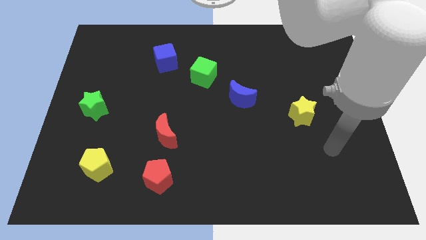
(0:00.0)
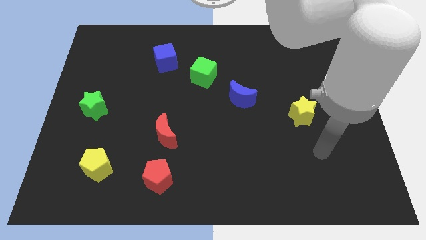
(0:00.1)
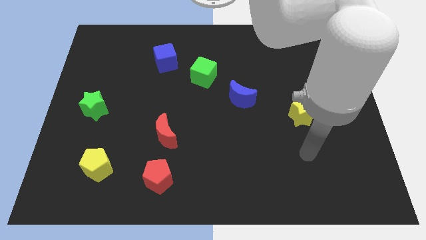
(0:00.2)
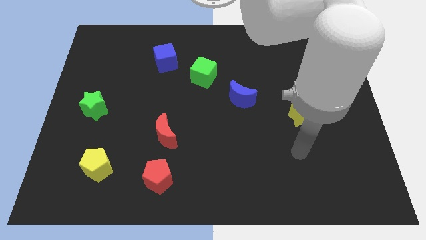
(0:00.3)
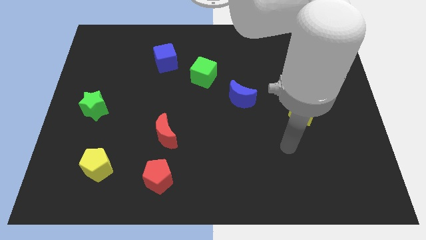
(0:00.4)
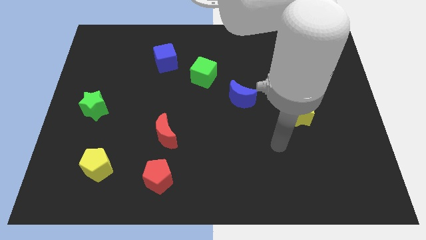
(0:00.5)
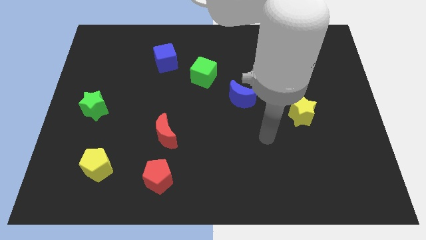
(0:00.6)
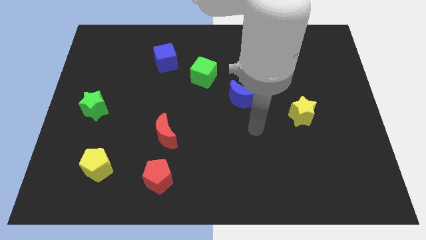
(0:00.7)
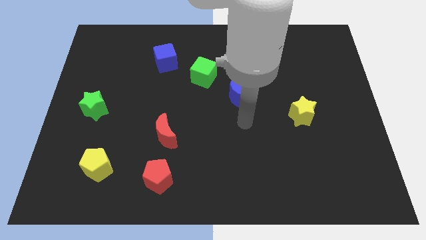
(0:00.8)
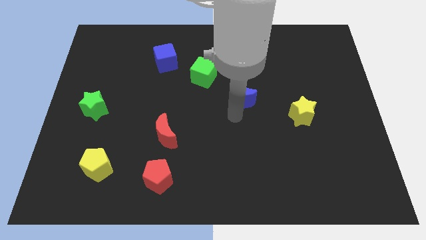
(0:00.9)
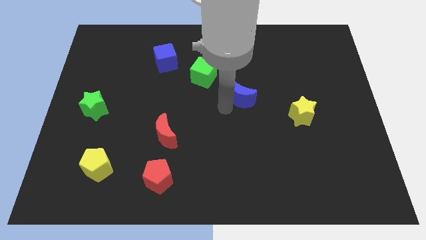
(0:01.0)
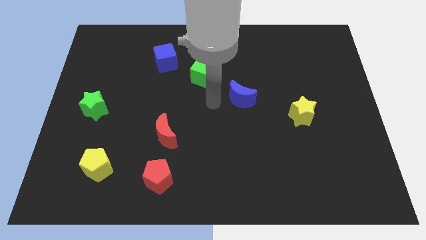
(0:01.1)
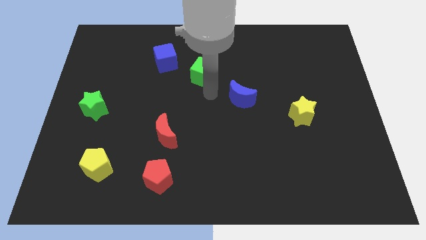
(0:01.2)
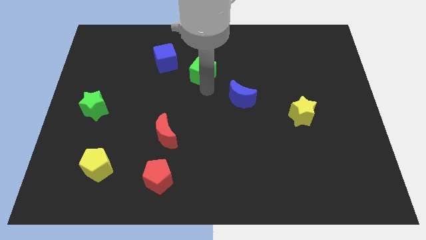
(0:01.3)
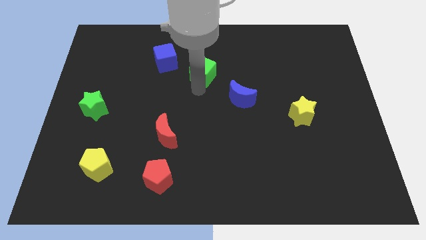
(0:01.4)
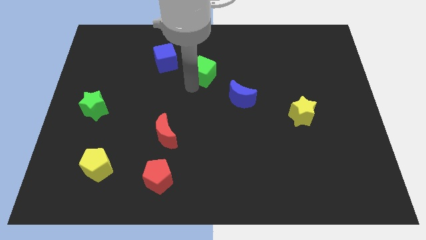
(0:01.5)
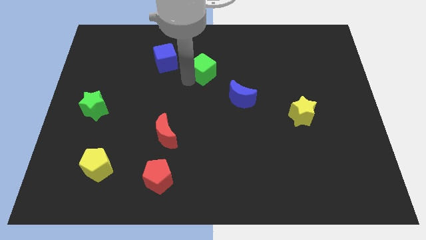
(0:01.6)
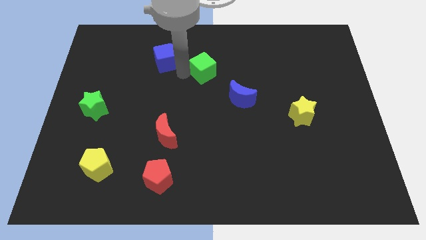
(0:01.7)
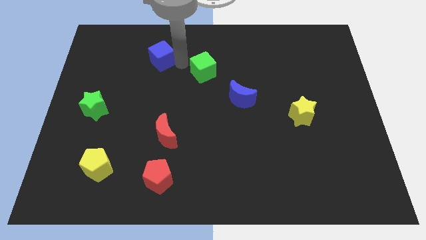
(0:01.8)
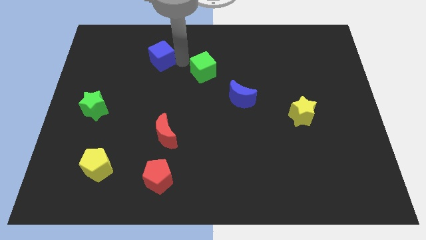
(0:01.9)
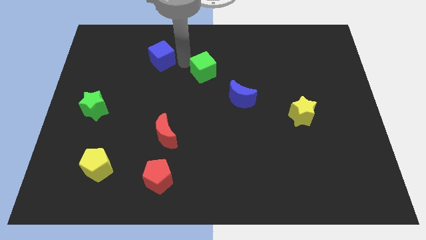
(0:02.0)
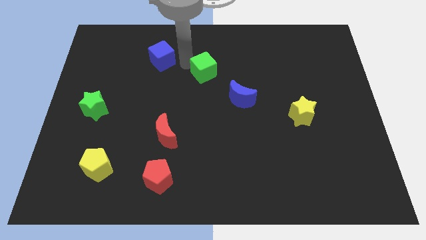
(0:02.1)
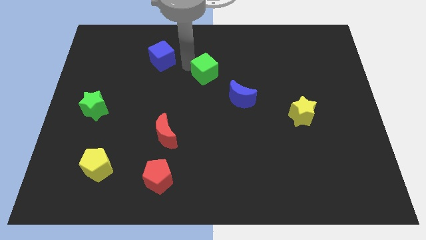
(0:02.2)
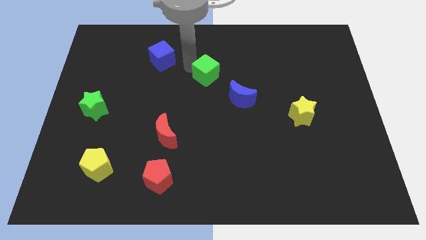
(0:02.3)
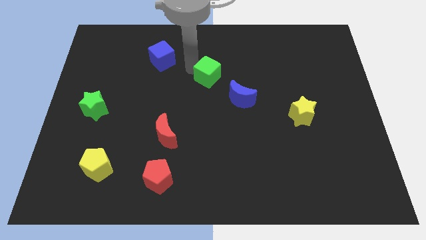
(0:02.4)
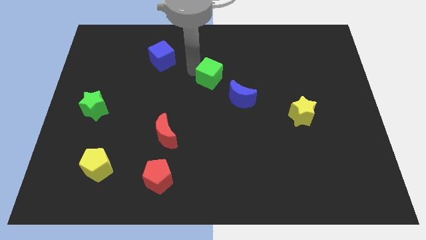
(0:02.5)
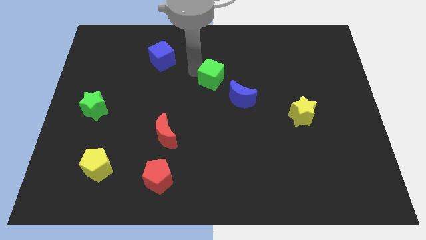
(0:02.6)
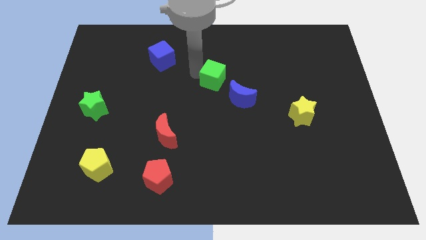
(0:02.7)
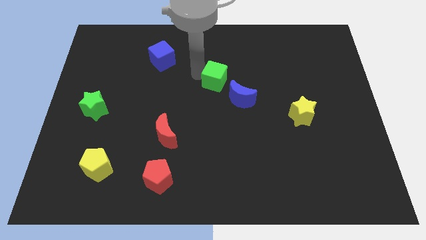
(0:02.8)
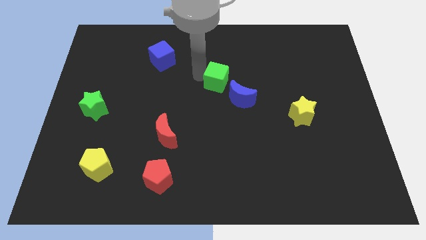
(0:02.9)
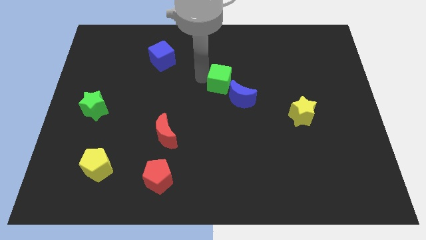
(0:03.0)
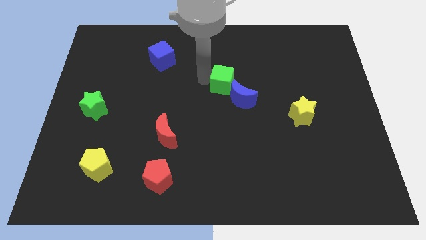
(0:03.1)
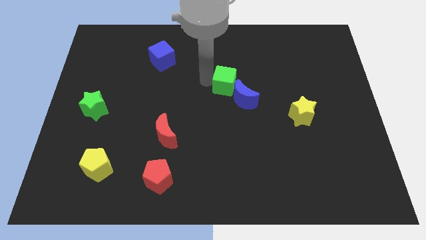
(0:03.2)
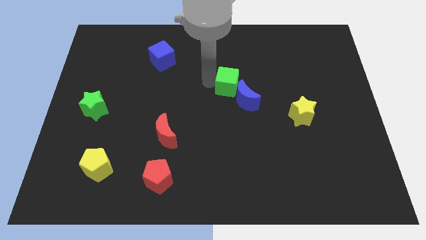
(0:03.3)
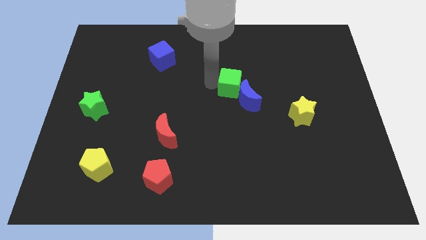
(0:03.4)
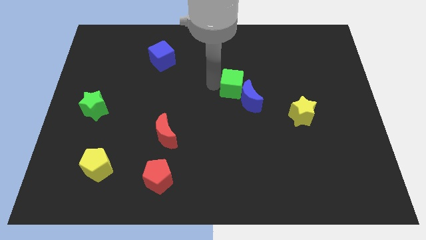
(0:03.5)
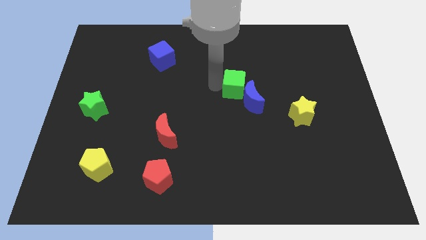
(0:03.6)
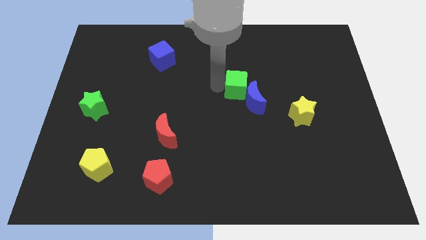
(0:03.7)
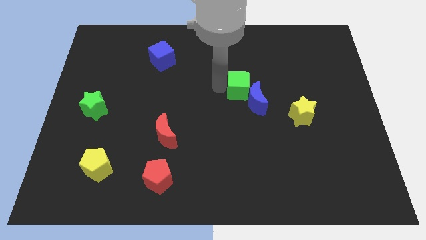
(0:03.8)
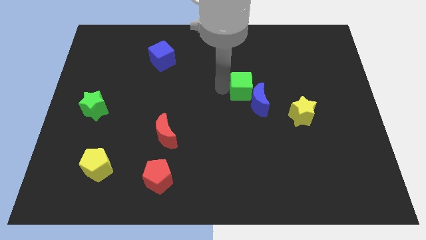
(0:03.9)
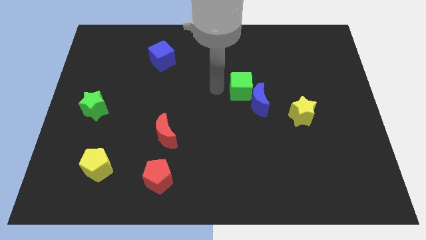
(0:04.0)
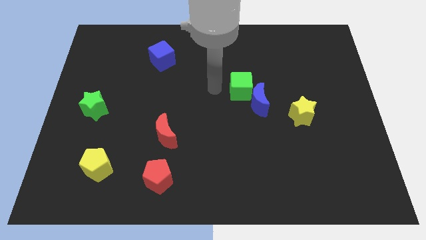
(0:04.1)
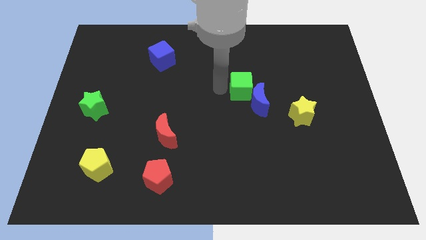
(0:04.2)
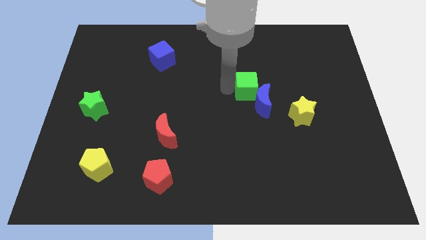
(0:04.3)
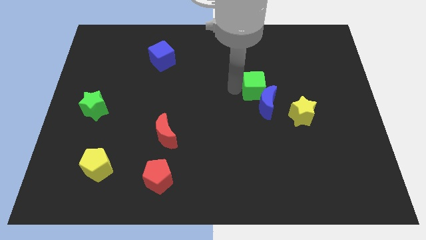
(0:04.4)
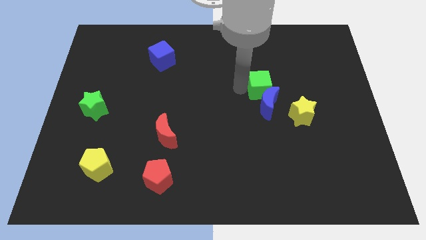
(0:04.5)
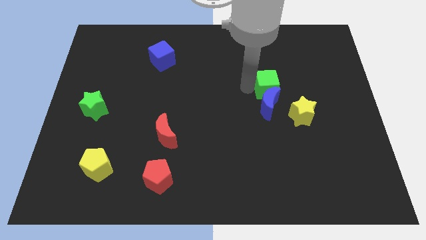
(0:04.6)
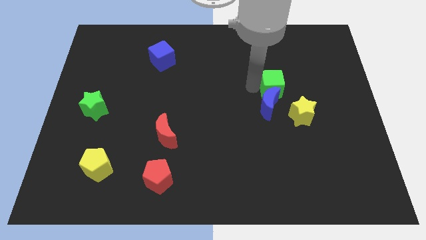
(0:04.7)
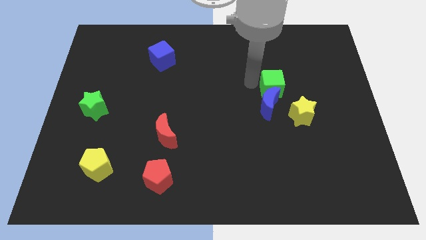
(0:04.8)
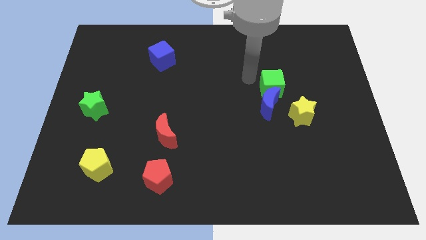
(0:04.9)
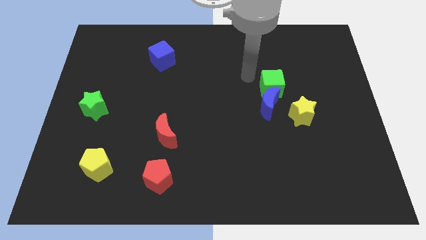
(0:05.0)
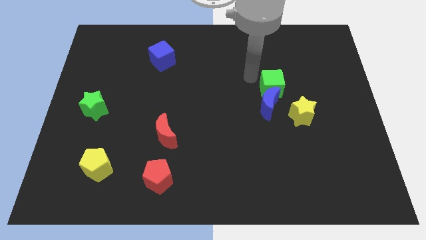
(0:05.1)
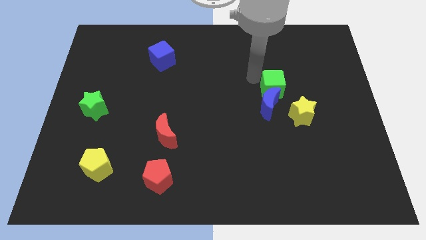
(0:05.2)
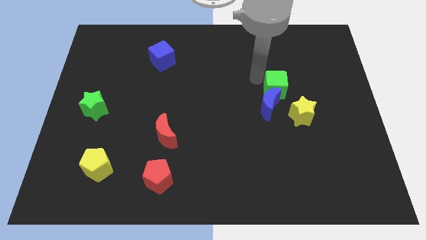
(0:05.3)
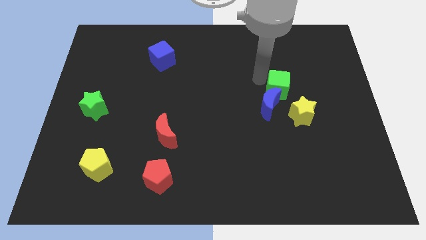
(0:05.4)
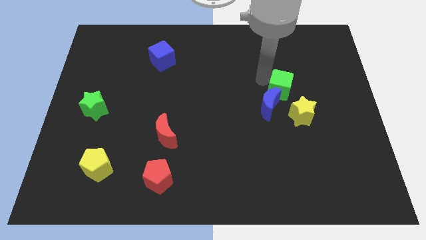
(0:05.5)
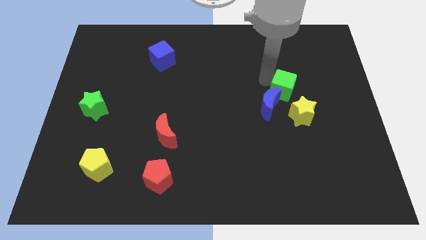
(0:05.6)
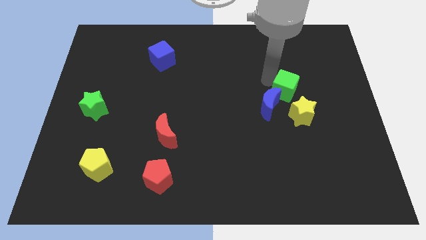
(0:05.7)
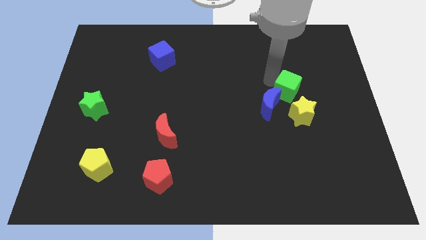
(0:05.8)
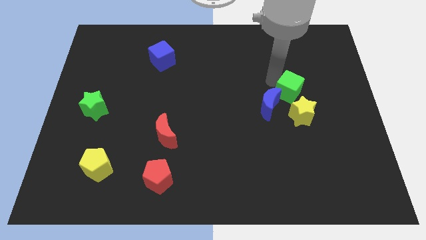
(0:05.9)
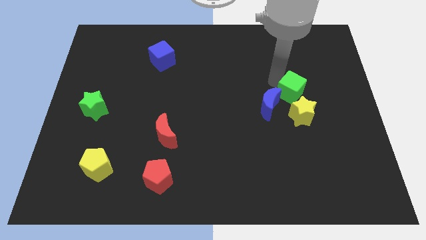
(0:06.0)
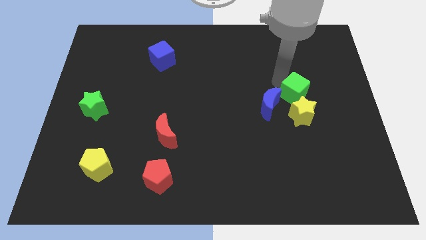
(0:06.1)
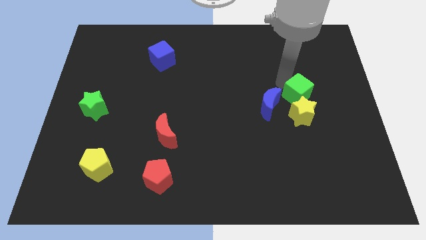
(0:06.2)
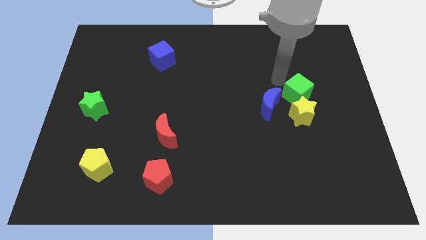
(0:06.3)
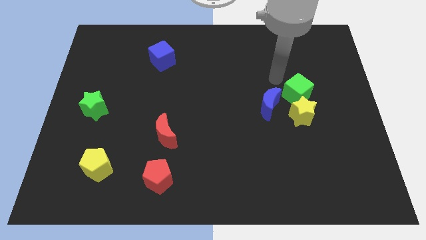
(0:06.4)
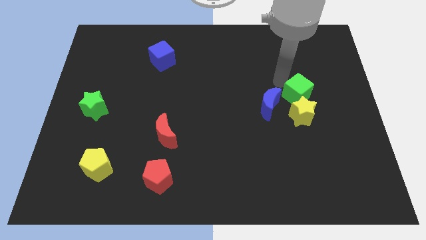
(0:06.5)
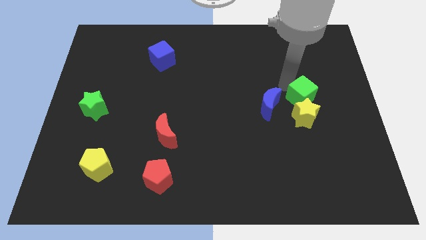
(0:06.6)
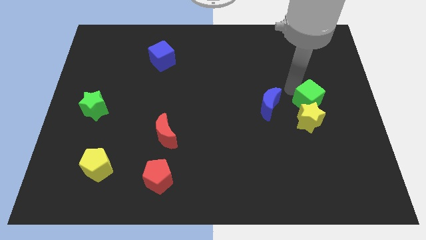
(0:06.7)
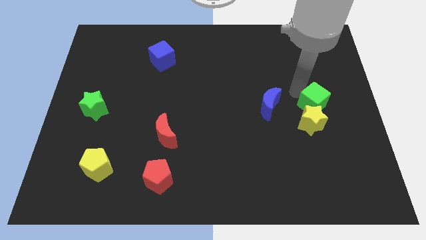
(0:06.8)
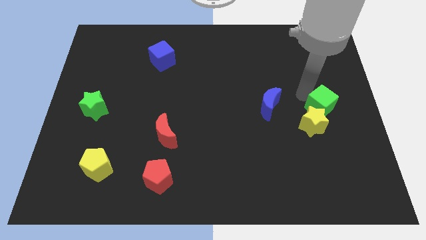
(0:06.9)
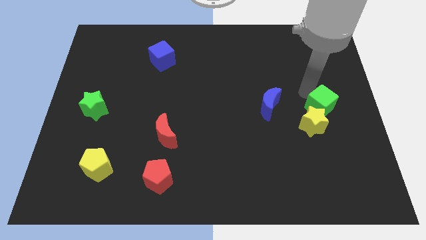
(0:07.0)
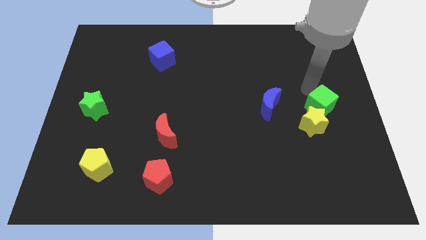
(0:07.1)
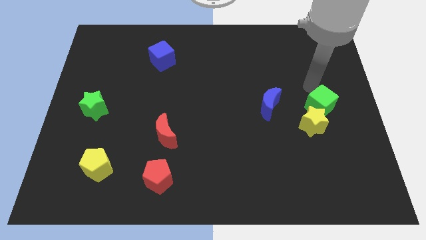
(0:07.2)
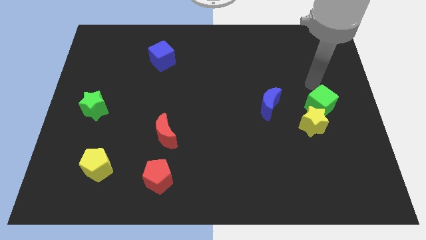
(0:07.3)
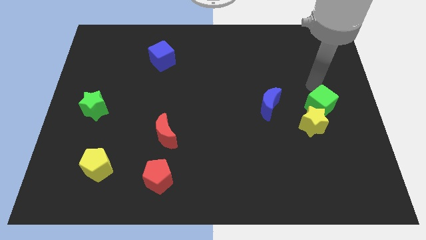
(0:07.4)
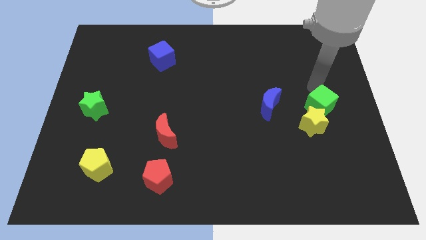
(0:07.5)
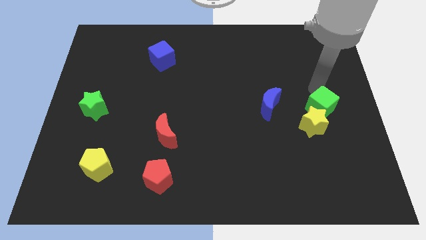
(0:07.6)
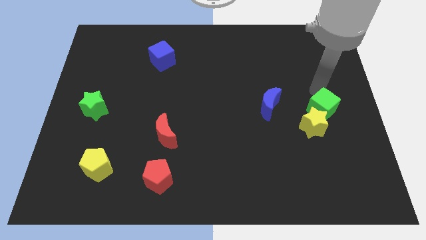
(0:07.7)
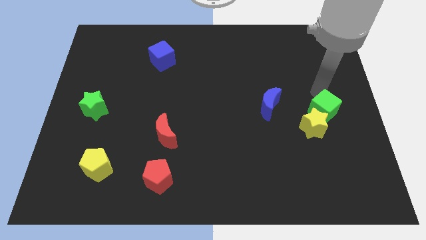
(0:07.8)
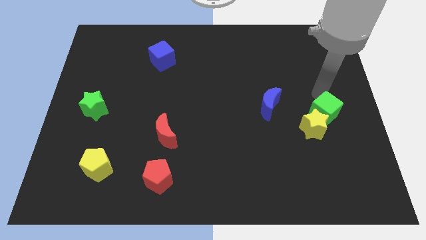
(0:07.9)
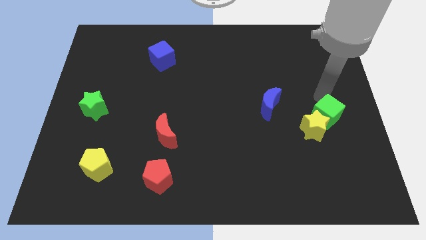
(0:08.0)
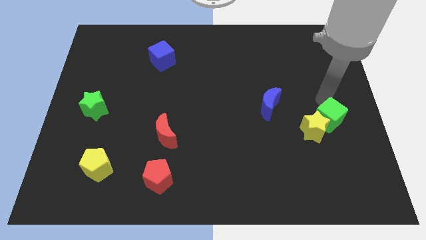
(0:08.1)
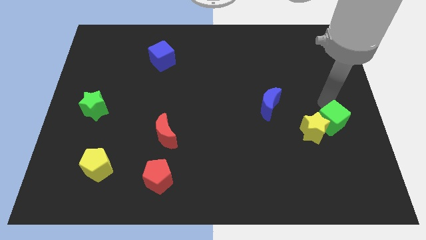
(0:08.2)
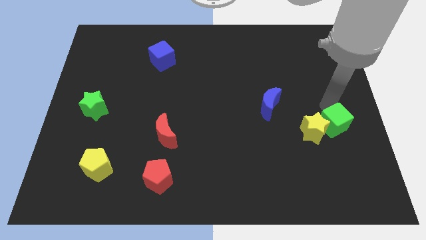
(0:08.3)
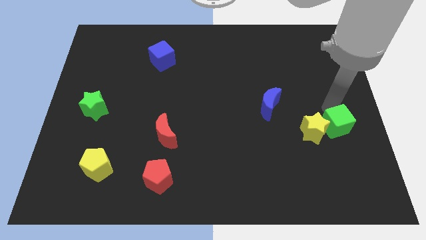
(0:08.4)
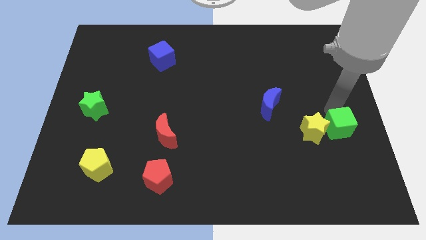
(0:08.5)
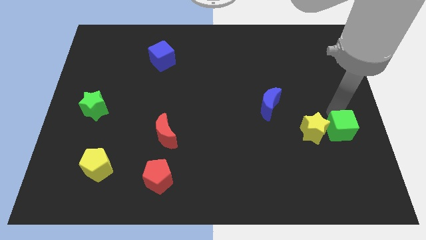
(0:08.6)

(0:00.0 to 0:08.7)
push the green cube diagonally down and to the right of the yellow star
